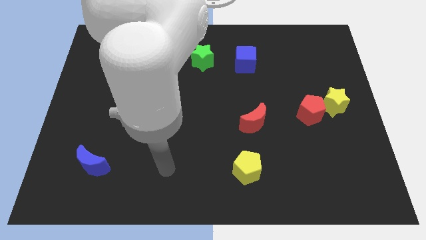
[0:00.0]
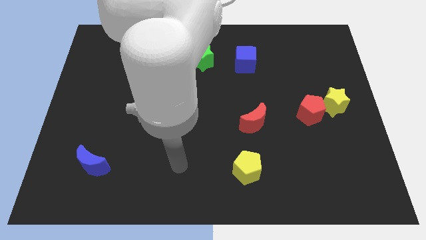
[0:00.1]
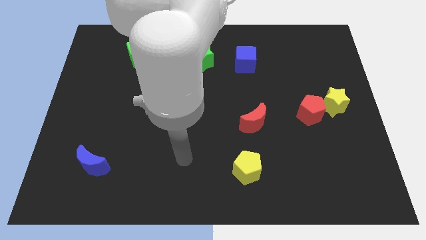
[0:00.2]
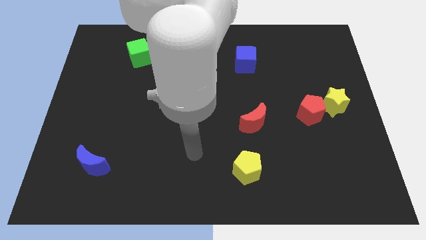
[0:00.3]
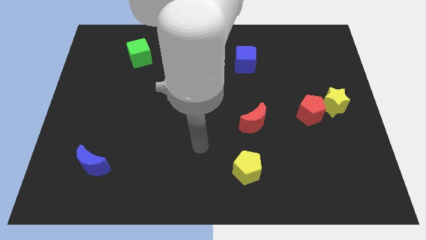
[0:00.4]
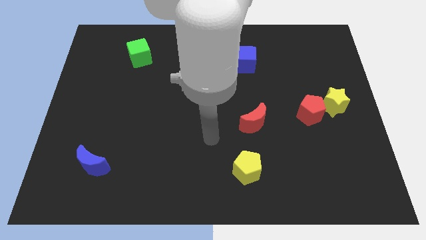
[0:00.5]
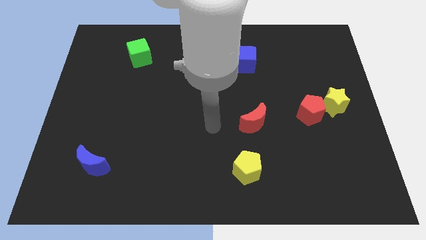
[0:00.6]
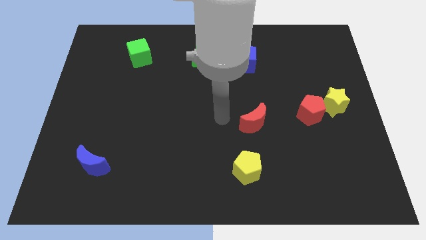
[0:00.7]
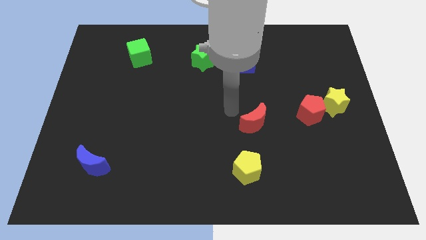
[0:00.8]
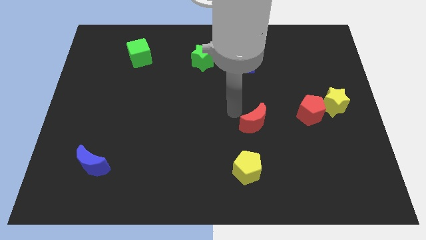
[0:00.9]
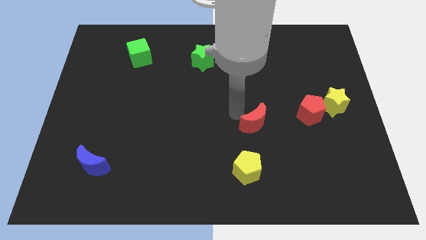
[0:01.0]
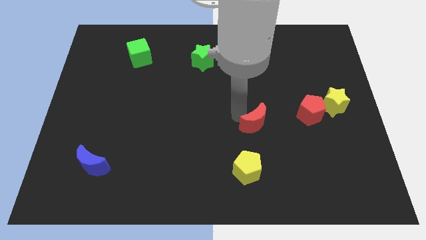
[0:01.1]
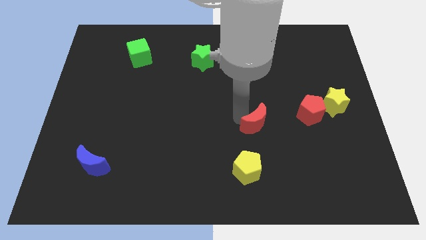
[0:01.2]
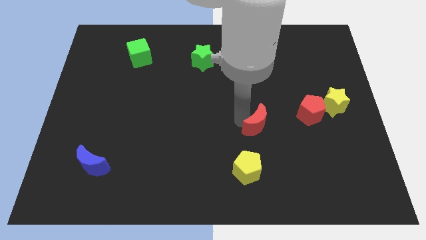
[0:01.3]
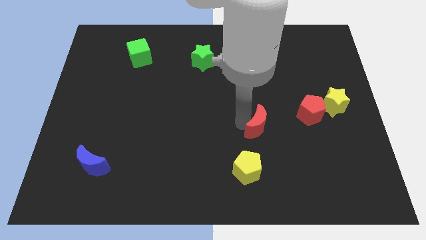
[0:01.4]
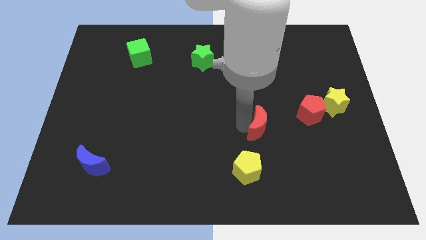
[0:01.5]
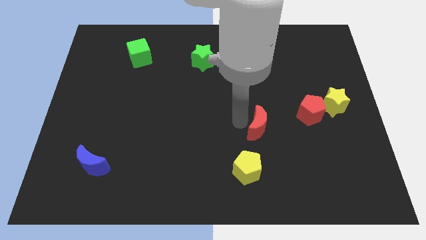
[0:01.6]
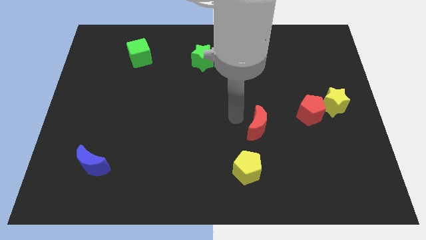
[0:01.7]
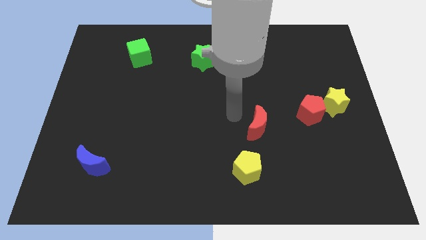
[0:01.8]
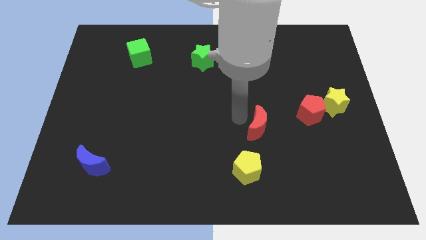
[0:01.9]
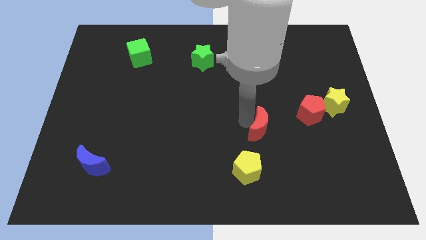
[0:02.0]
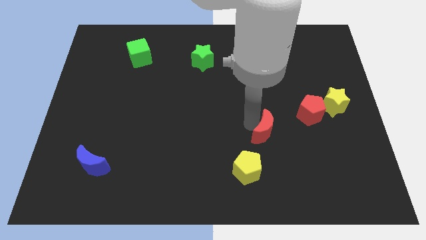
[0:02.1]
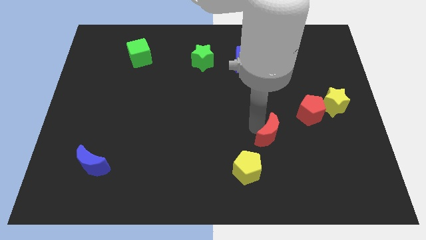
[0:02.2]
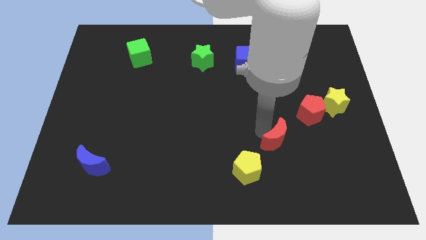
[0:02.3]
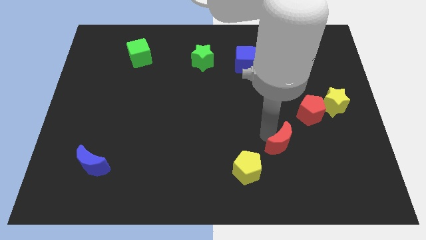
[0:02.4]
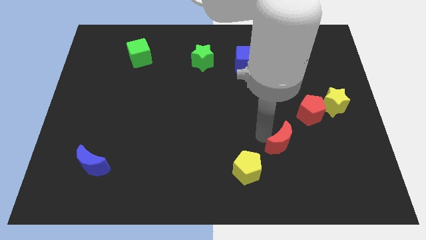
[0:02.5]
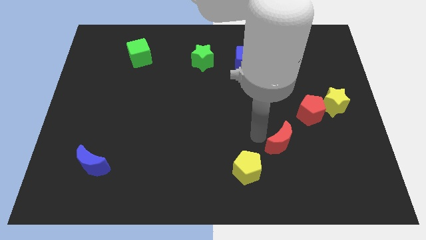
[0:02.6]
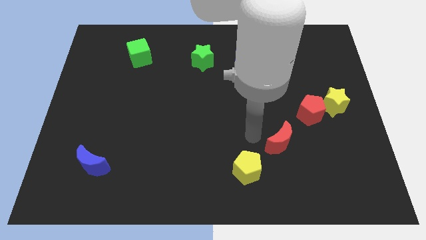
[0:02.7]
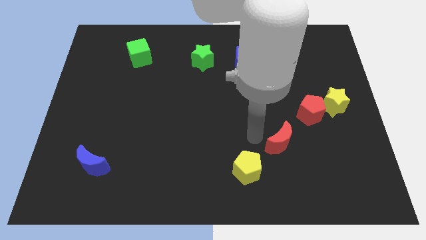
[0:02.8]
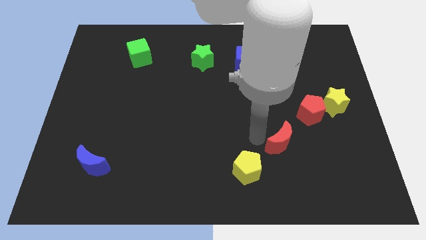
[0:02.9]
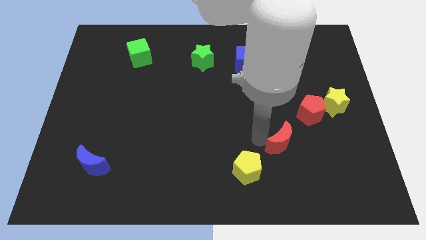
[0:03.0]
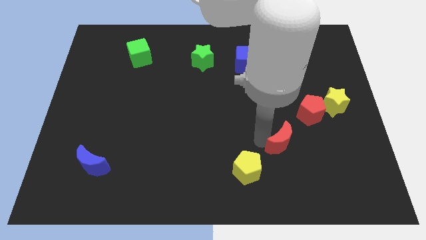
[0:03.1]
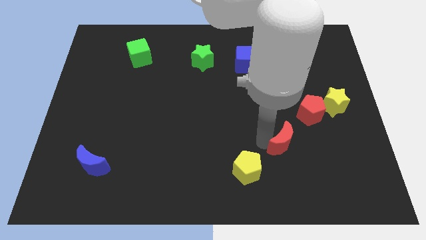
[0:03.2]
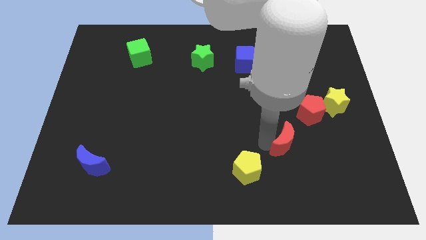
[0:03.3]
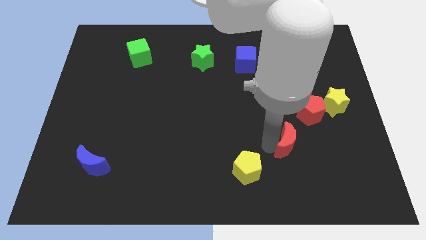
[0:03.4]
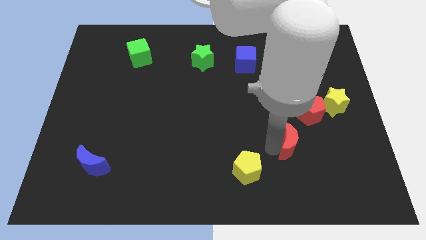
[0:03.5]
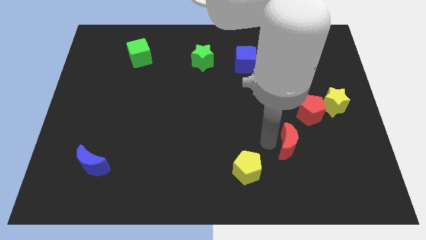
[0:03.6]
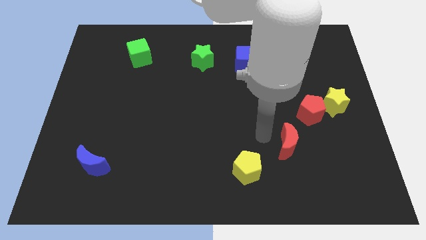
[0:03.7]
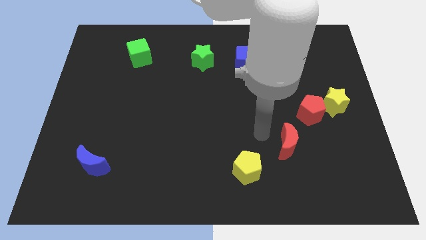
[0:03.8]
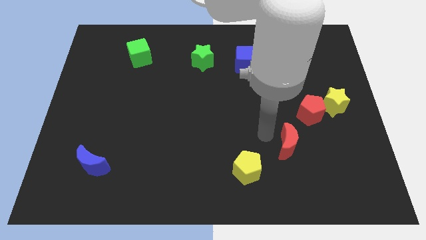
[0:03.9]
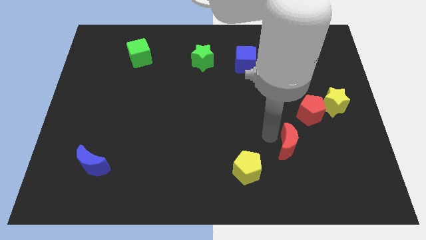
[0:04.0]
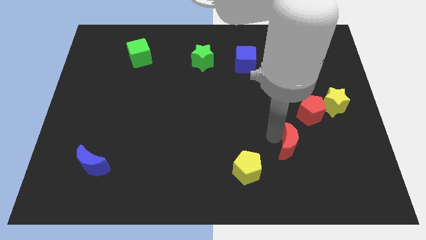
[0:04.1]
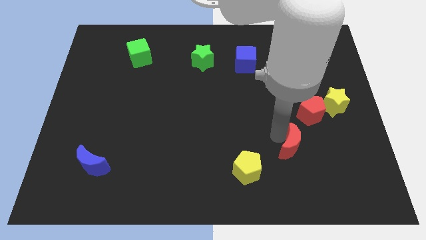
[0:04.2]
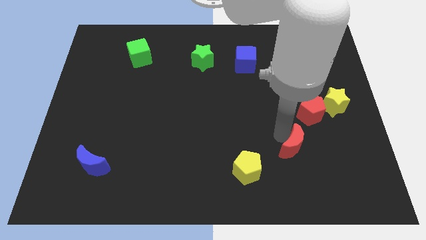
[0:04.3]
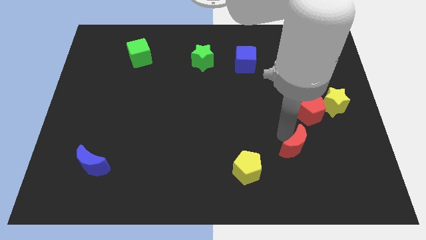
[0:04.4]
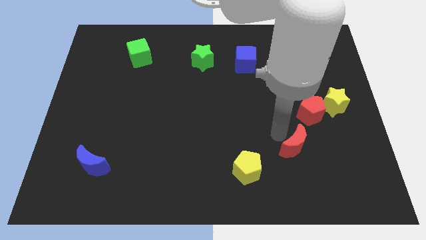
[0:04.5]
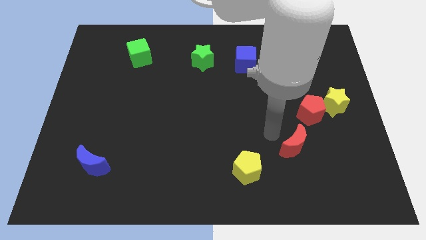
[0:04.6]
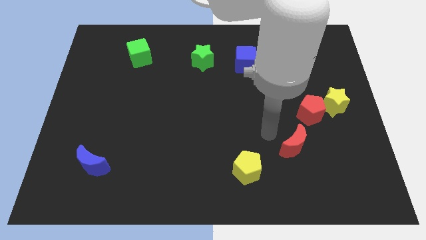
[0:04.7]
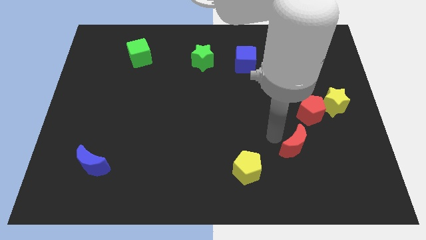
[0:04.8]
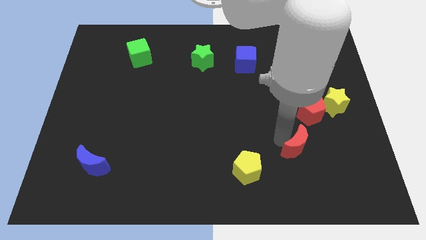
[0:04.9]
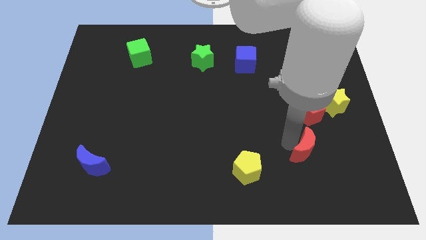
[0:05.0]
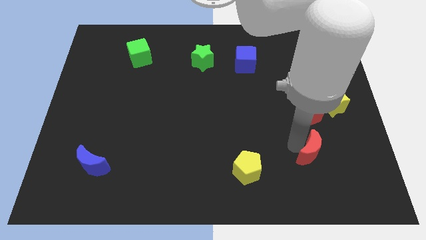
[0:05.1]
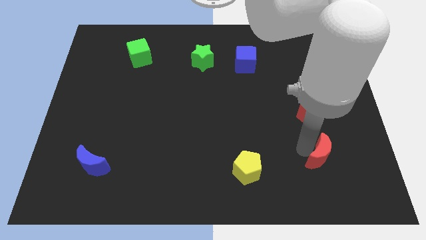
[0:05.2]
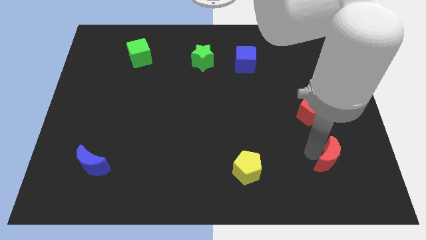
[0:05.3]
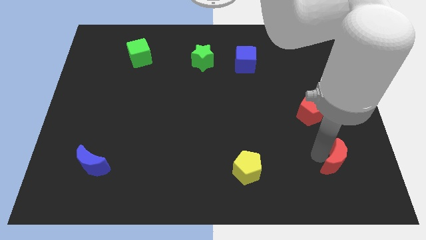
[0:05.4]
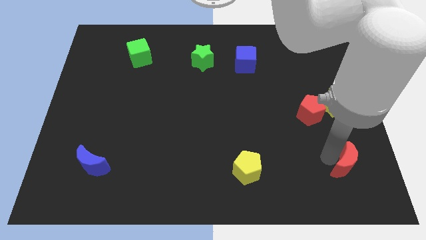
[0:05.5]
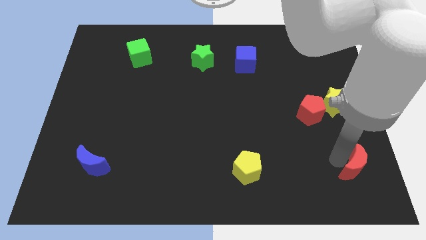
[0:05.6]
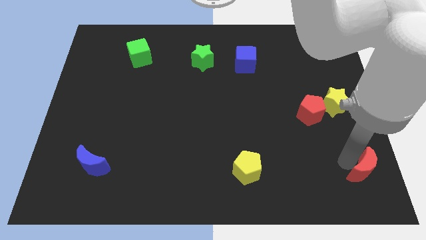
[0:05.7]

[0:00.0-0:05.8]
push the red moon to the bottom right
